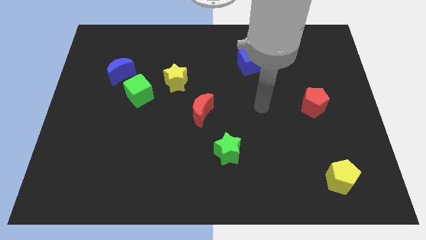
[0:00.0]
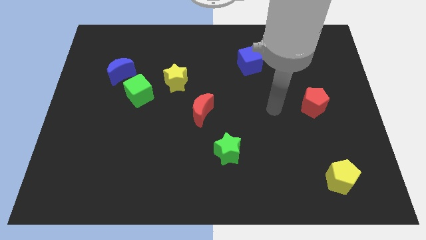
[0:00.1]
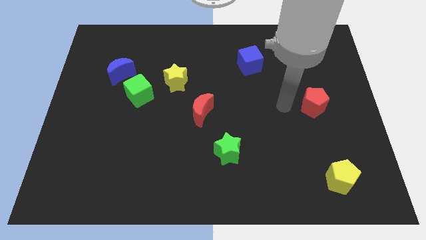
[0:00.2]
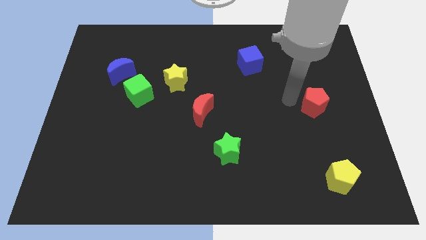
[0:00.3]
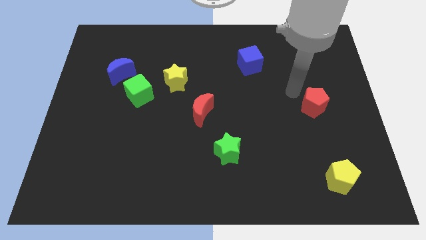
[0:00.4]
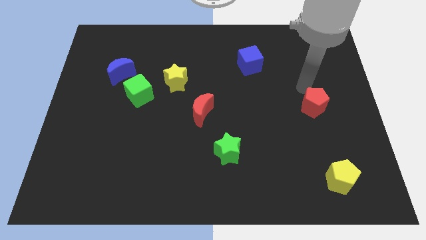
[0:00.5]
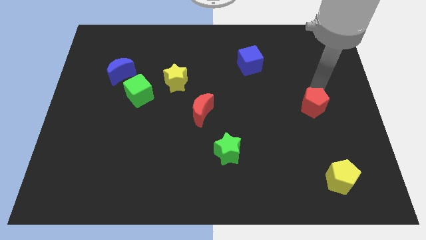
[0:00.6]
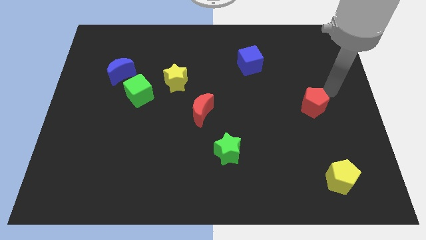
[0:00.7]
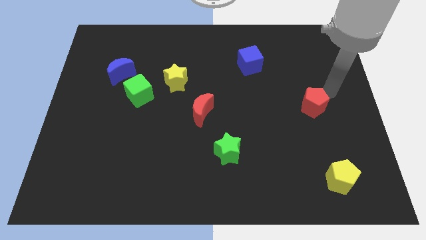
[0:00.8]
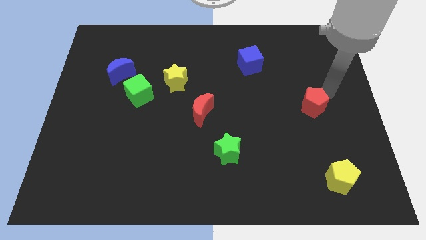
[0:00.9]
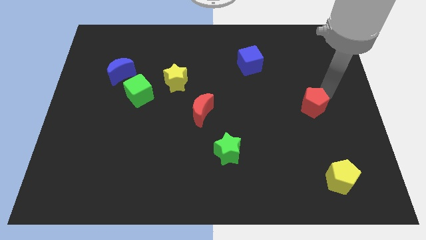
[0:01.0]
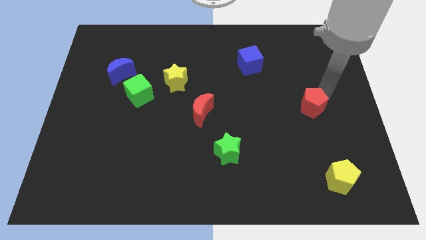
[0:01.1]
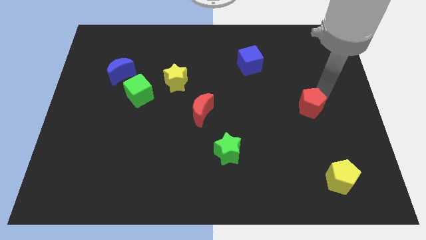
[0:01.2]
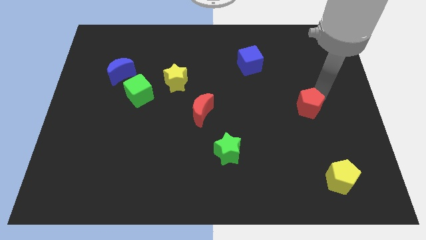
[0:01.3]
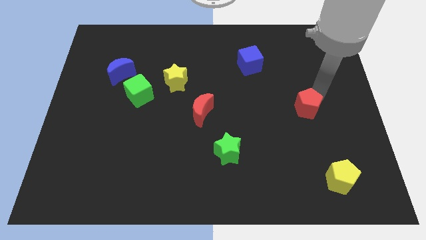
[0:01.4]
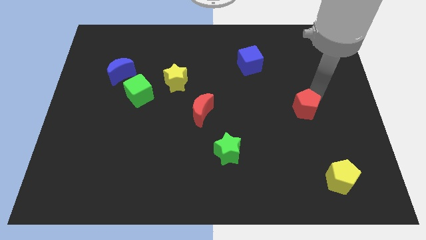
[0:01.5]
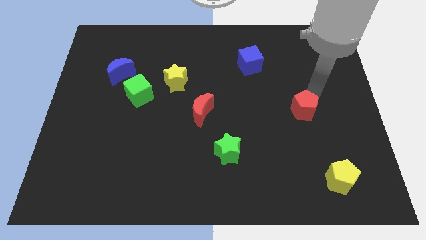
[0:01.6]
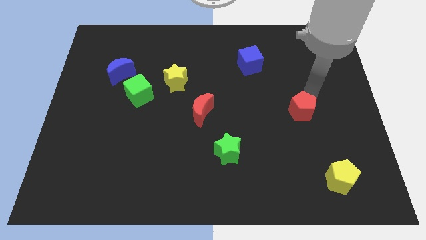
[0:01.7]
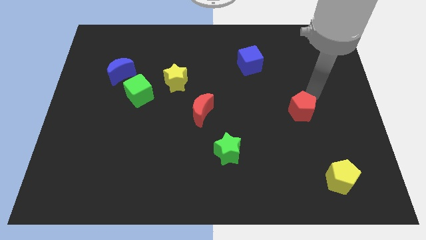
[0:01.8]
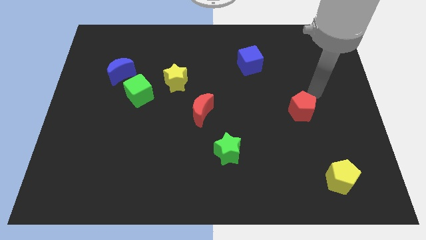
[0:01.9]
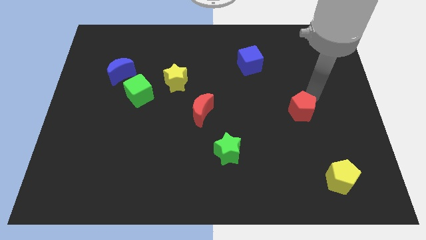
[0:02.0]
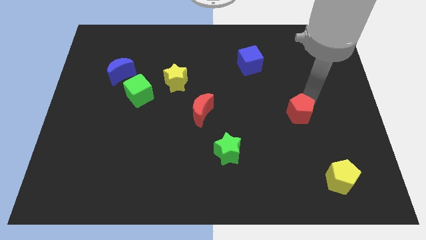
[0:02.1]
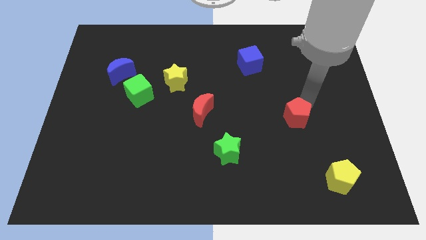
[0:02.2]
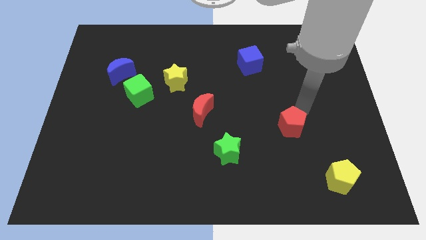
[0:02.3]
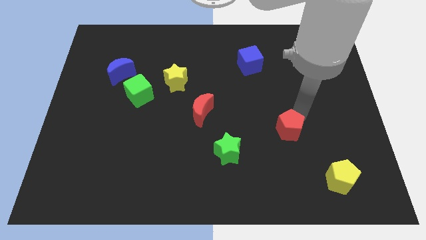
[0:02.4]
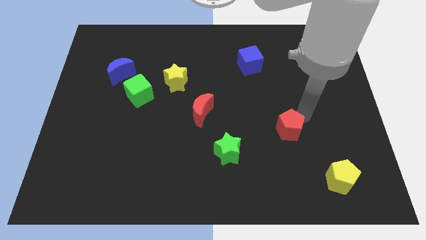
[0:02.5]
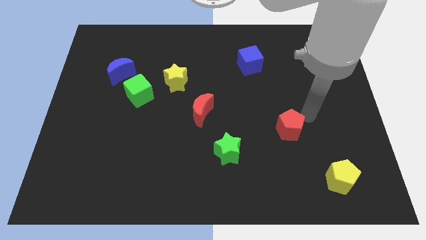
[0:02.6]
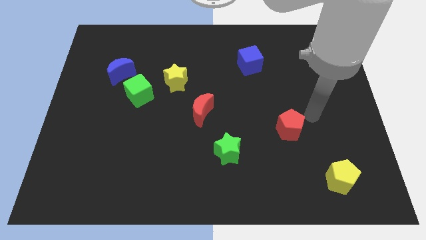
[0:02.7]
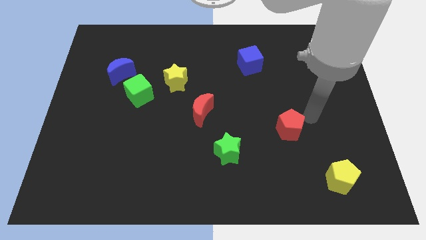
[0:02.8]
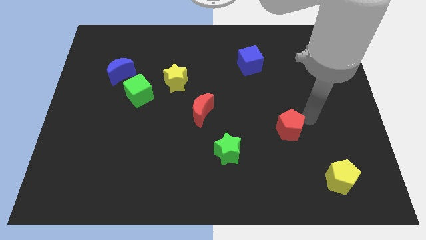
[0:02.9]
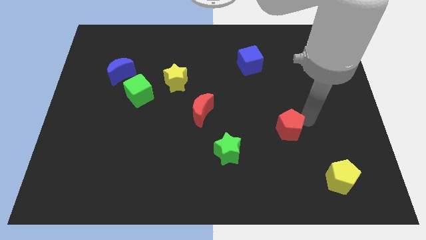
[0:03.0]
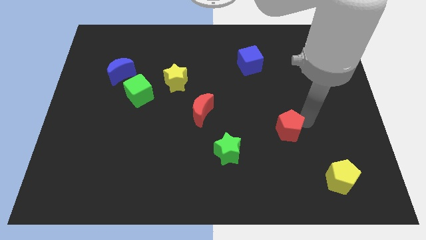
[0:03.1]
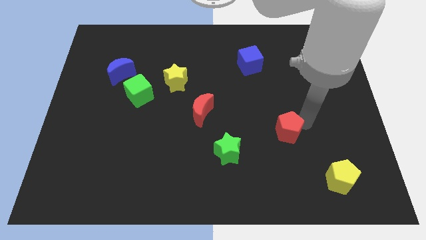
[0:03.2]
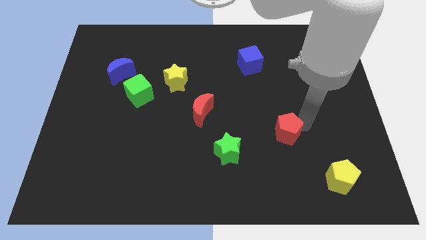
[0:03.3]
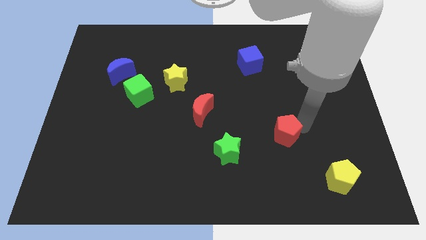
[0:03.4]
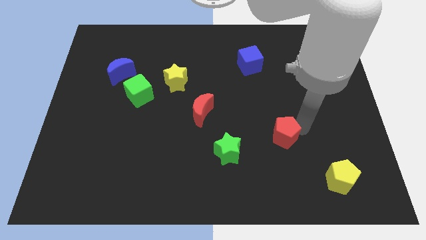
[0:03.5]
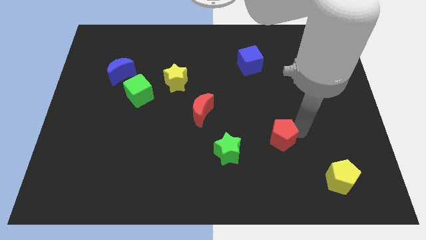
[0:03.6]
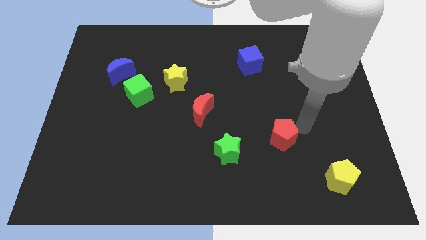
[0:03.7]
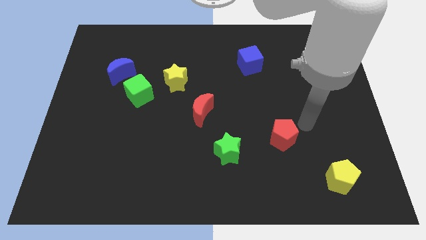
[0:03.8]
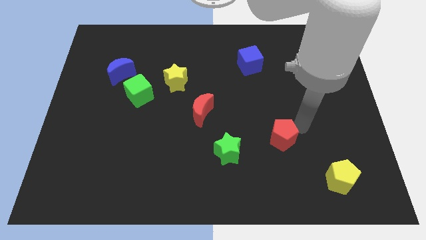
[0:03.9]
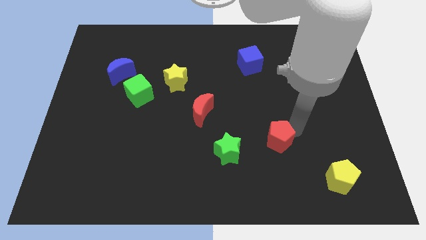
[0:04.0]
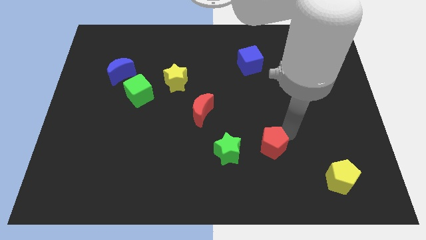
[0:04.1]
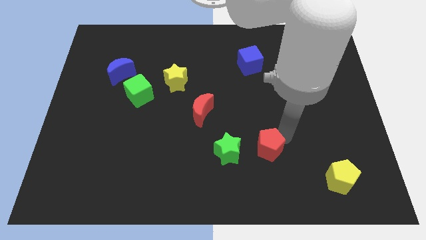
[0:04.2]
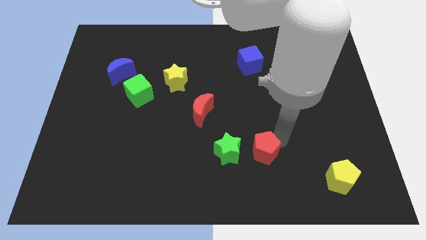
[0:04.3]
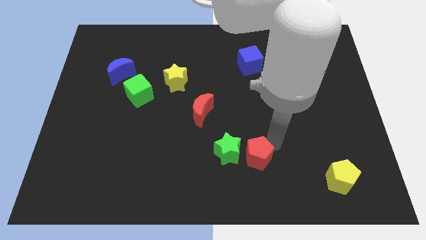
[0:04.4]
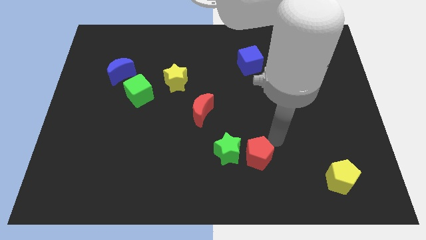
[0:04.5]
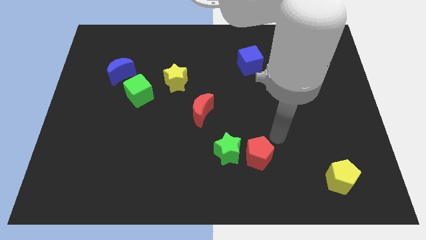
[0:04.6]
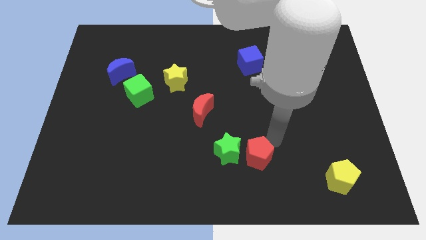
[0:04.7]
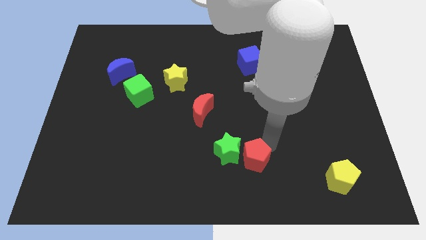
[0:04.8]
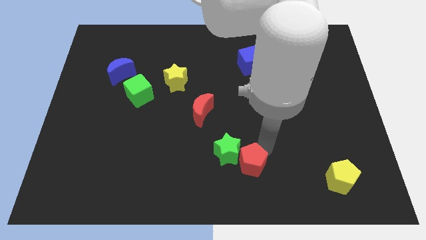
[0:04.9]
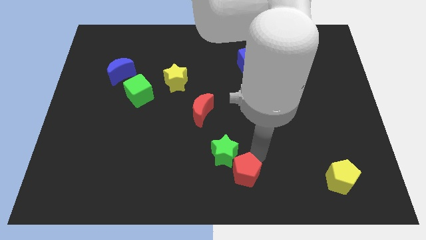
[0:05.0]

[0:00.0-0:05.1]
slide the red pentagon to the bottom side

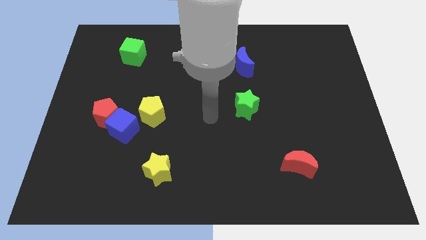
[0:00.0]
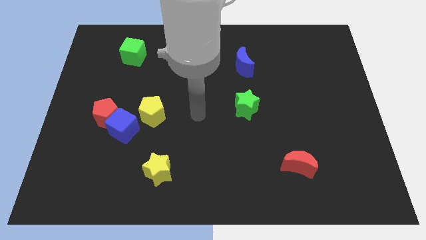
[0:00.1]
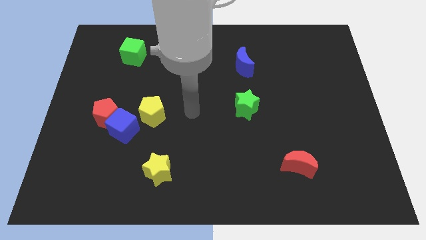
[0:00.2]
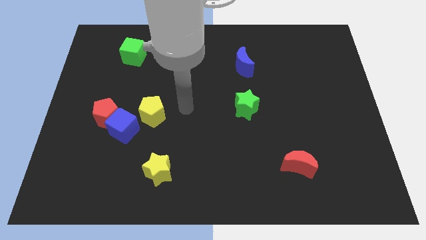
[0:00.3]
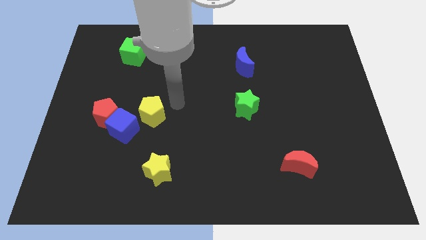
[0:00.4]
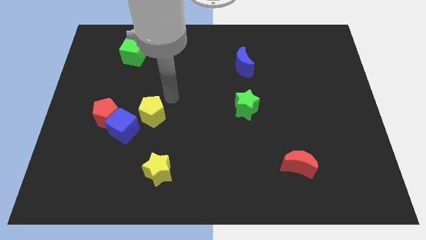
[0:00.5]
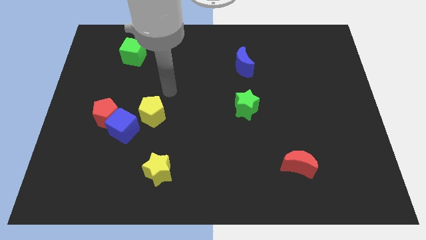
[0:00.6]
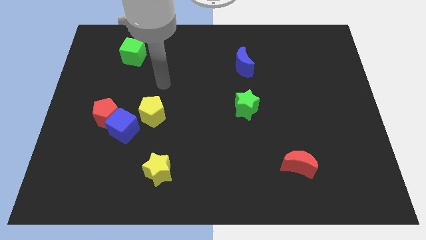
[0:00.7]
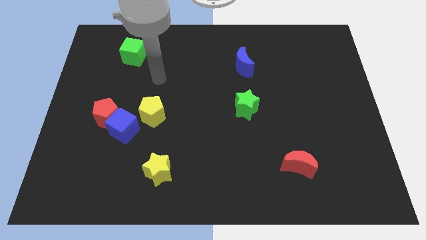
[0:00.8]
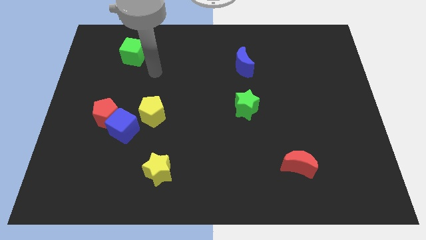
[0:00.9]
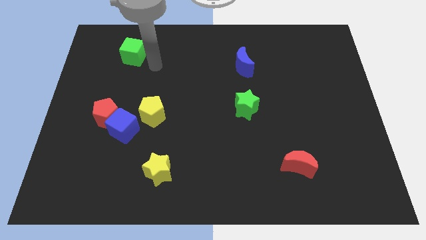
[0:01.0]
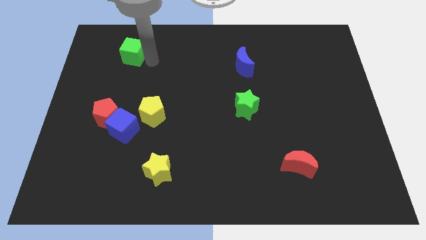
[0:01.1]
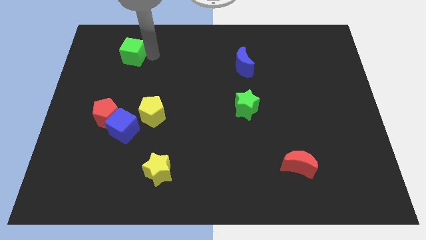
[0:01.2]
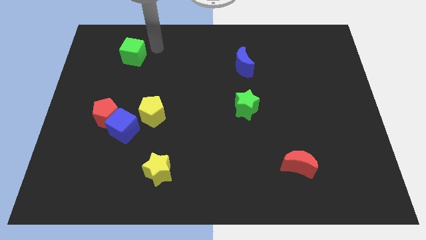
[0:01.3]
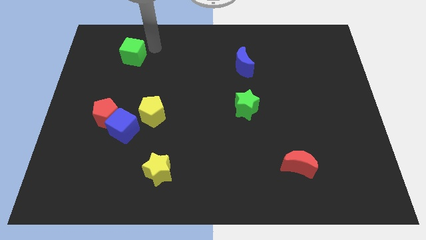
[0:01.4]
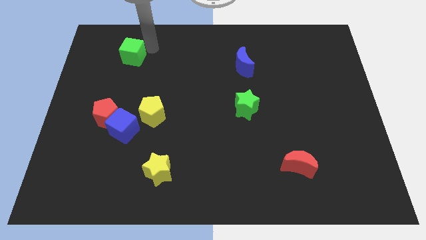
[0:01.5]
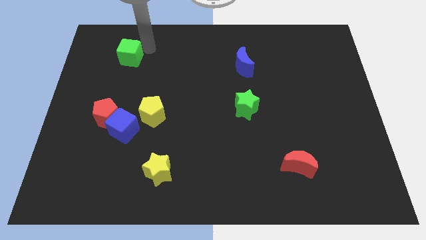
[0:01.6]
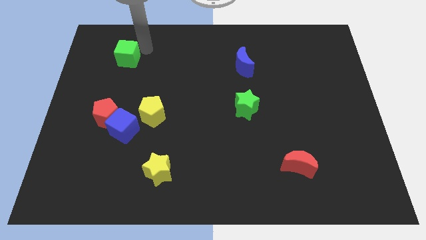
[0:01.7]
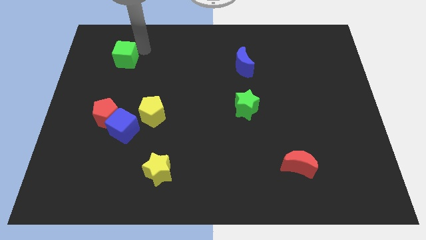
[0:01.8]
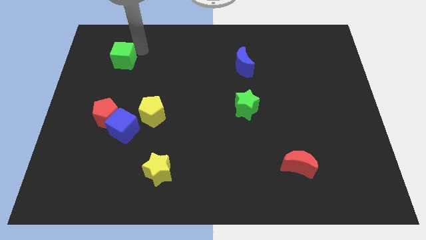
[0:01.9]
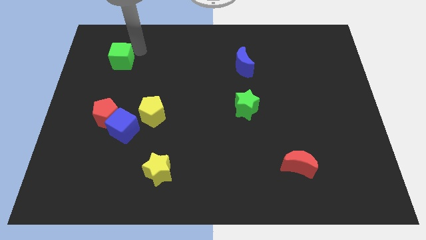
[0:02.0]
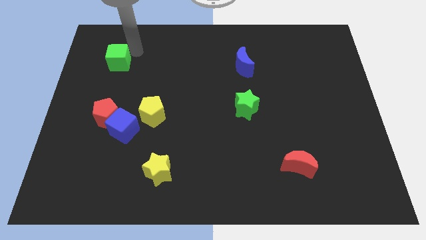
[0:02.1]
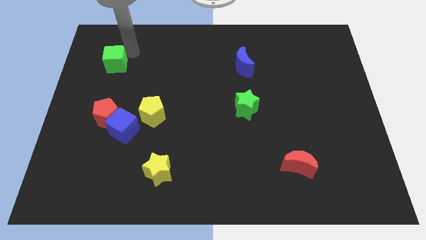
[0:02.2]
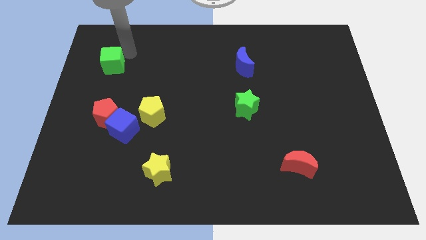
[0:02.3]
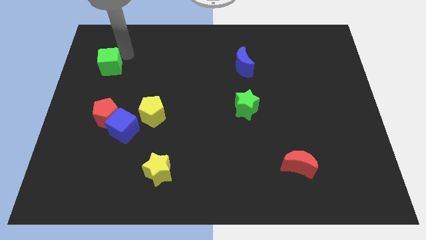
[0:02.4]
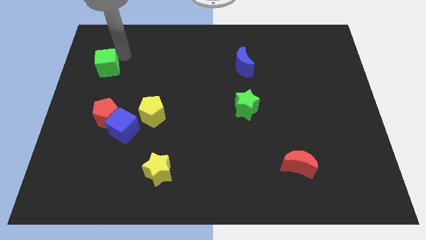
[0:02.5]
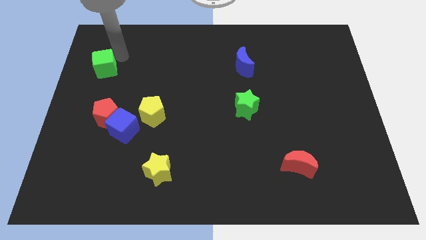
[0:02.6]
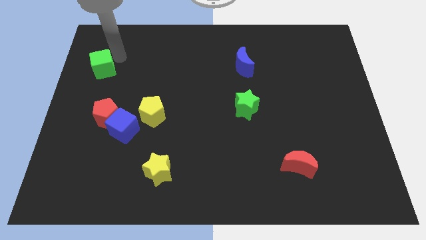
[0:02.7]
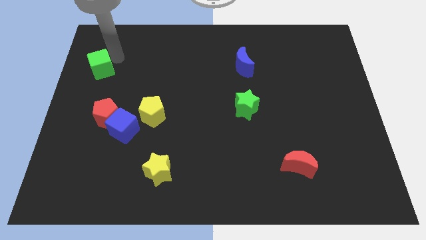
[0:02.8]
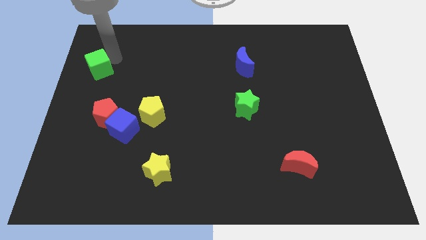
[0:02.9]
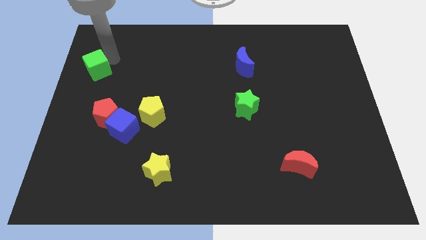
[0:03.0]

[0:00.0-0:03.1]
slide the green cube to the left side
